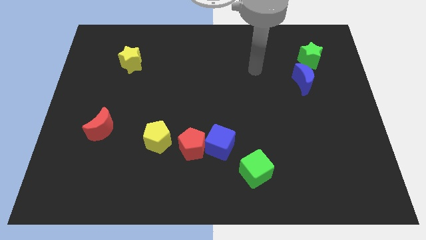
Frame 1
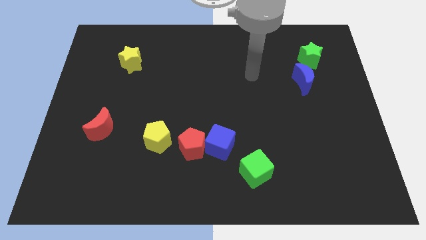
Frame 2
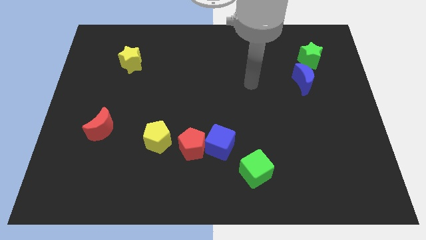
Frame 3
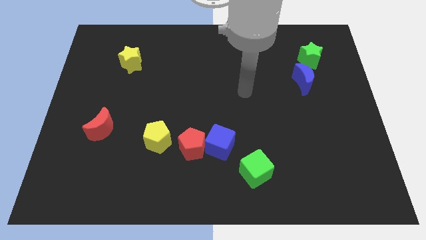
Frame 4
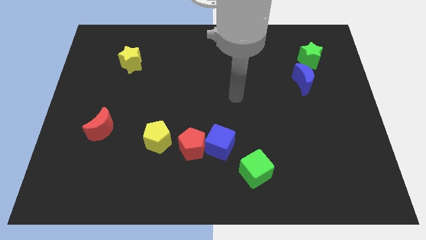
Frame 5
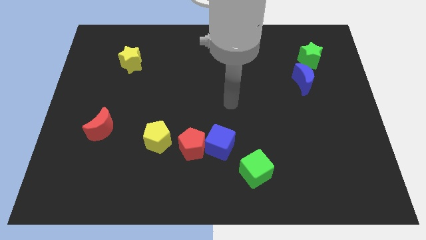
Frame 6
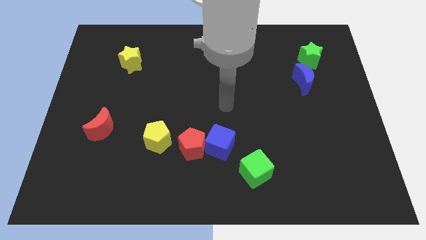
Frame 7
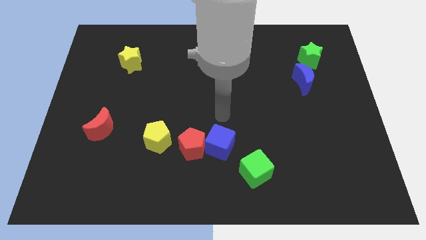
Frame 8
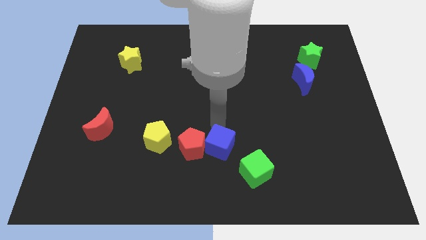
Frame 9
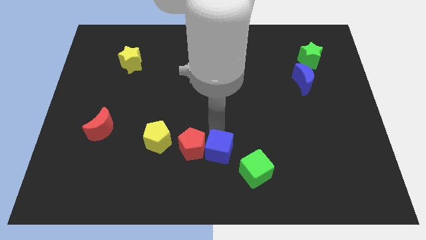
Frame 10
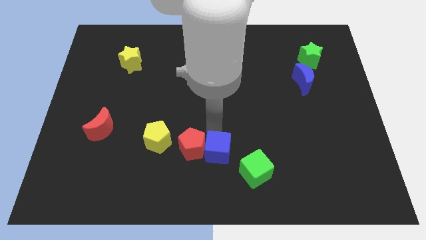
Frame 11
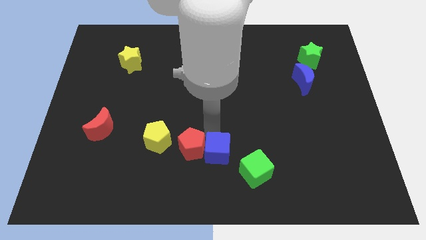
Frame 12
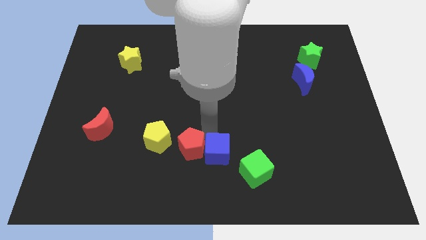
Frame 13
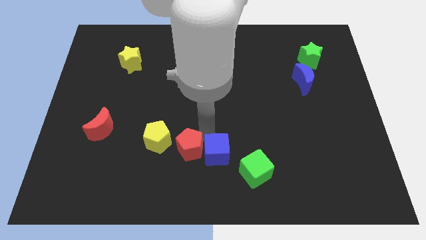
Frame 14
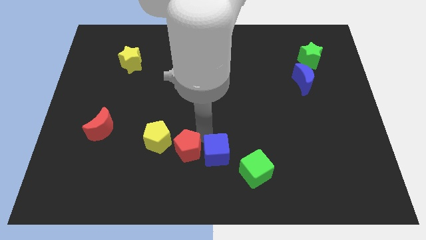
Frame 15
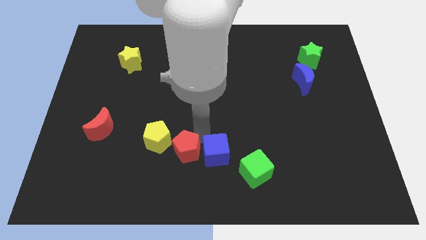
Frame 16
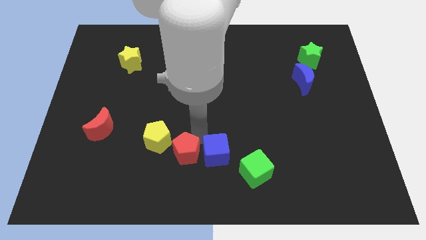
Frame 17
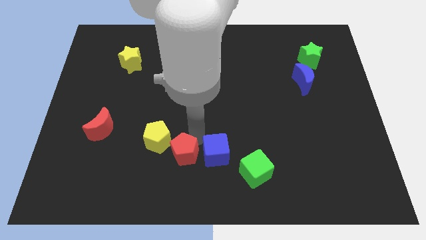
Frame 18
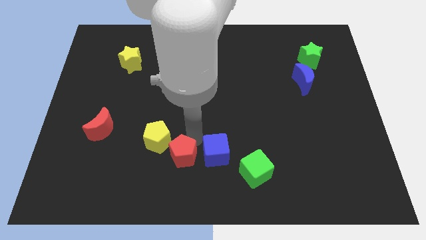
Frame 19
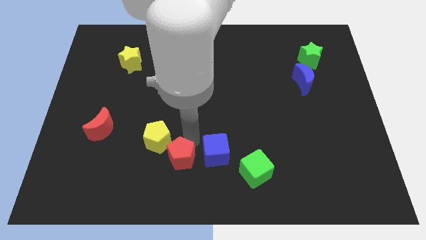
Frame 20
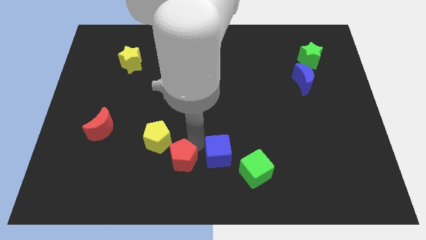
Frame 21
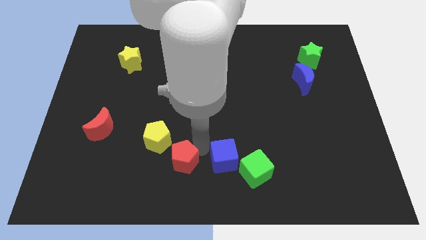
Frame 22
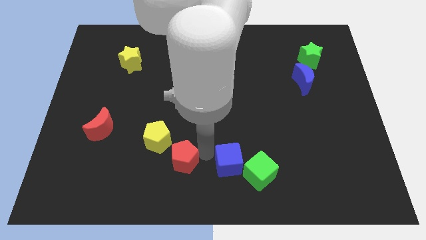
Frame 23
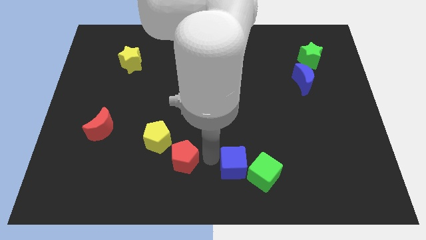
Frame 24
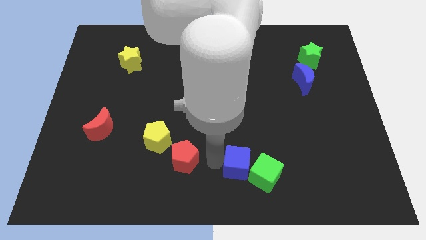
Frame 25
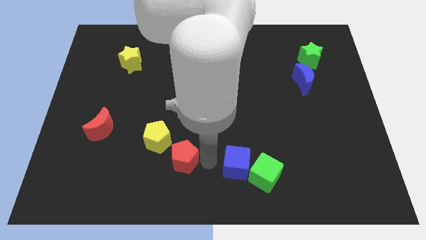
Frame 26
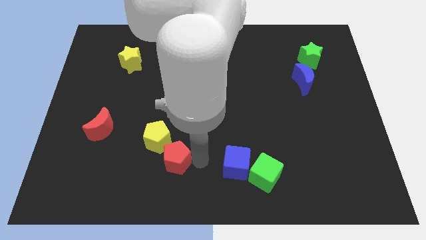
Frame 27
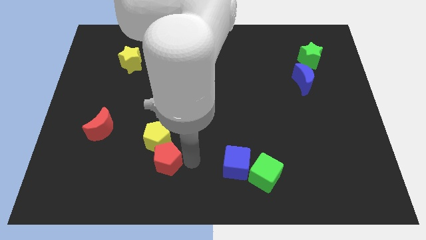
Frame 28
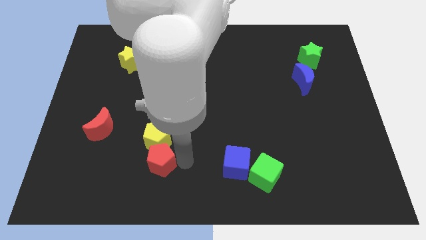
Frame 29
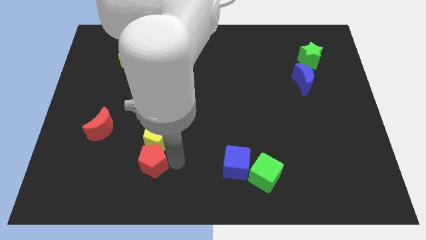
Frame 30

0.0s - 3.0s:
slide the red pentagon left a bit

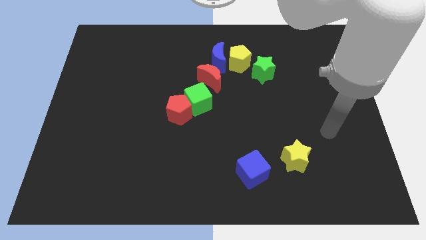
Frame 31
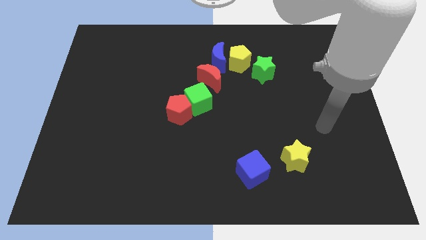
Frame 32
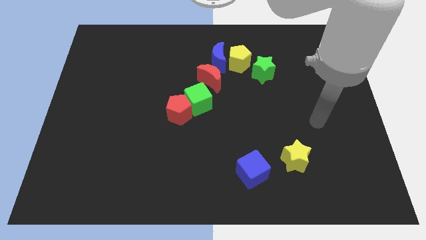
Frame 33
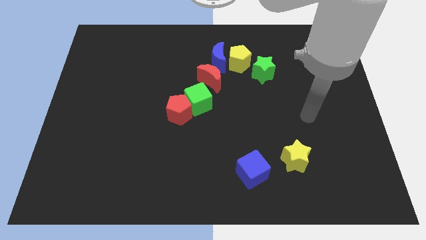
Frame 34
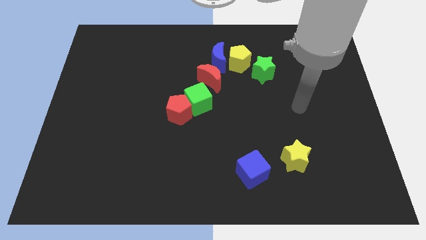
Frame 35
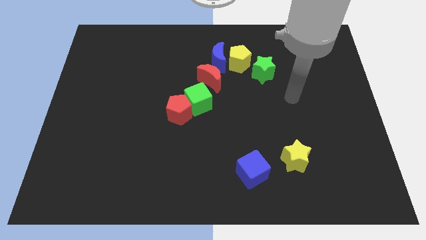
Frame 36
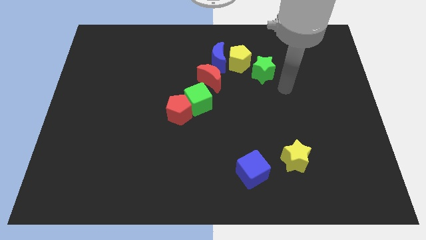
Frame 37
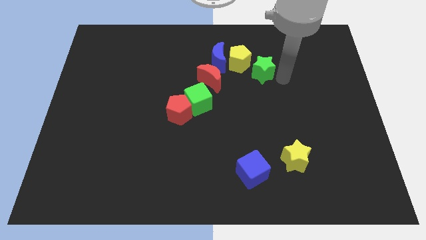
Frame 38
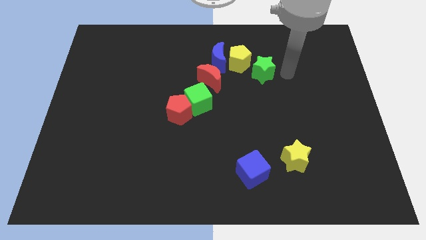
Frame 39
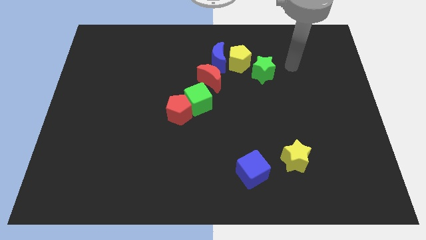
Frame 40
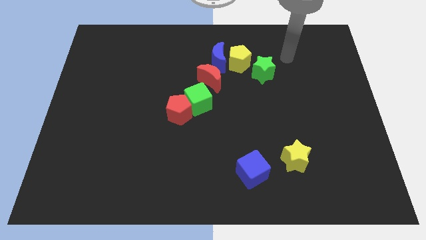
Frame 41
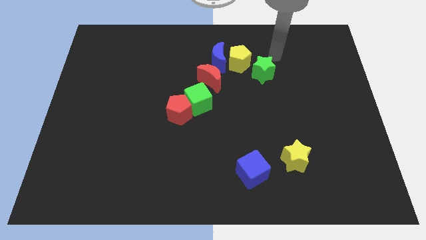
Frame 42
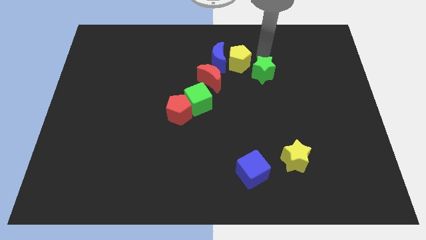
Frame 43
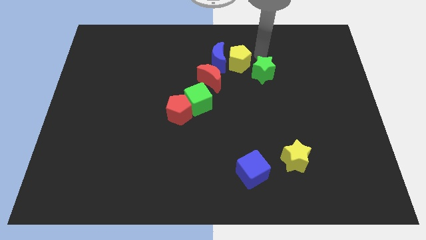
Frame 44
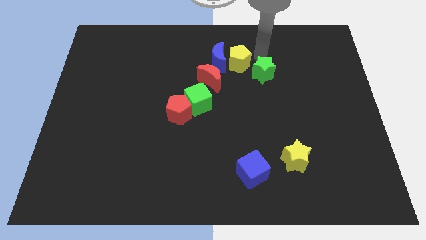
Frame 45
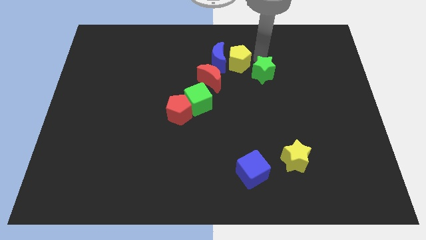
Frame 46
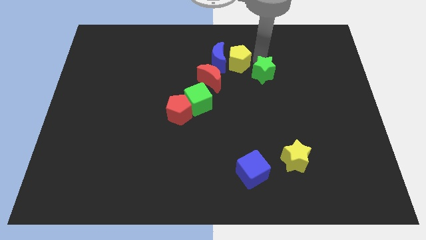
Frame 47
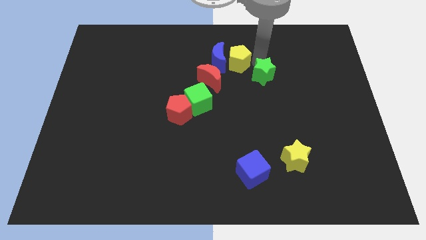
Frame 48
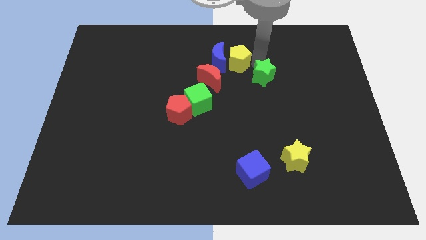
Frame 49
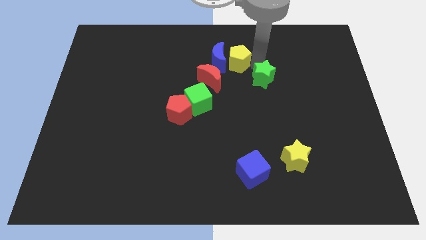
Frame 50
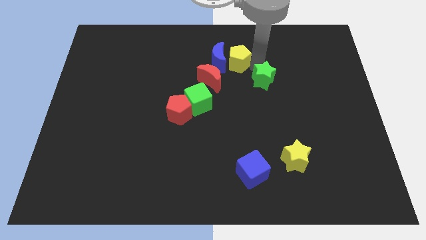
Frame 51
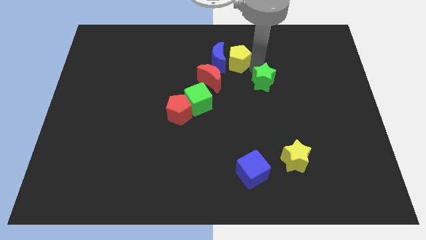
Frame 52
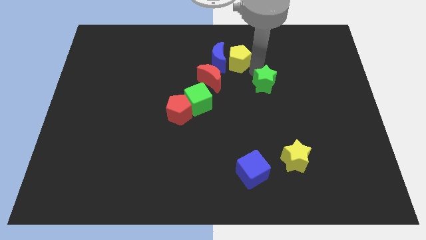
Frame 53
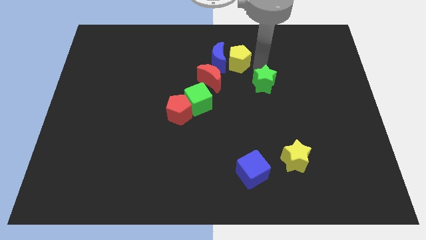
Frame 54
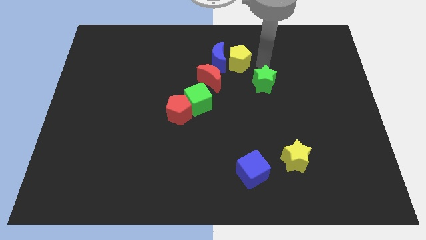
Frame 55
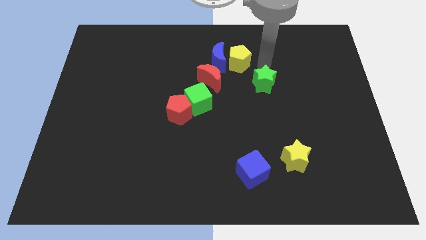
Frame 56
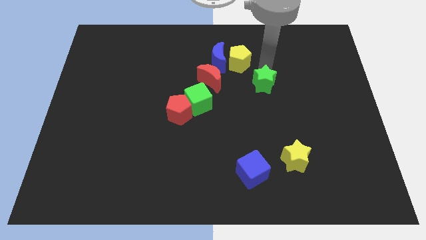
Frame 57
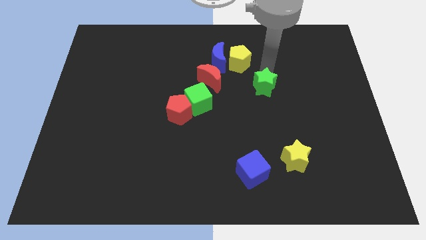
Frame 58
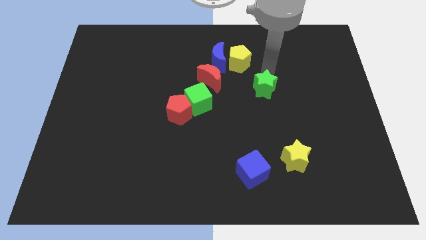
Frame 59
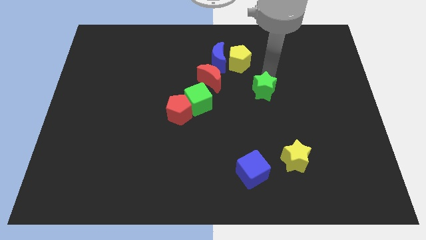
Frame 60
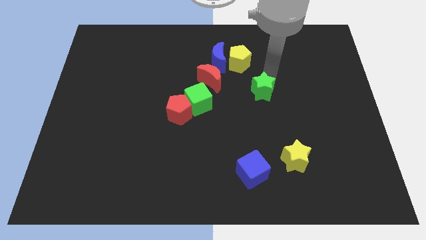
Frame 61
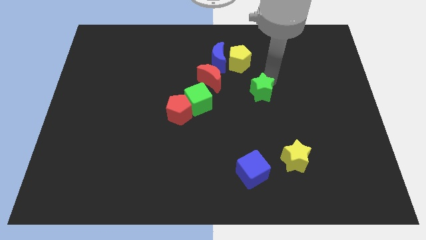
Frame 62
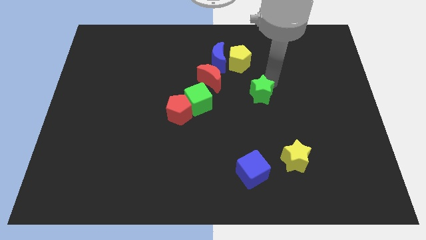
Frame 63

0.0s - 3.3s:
move the green star down somewhat

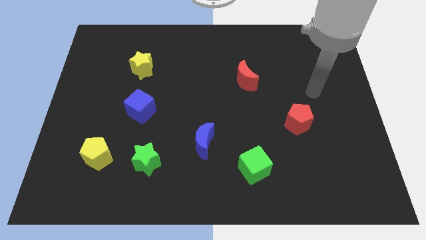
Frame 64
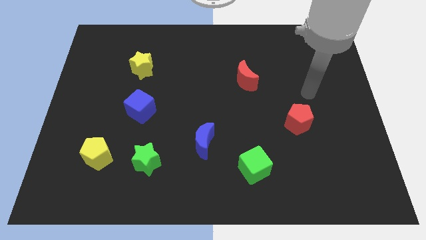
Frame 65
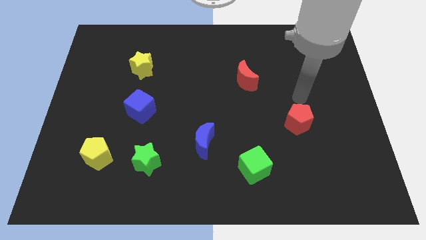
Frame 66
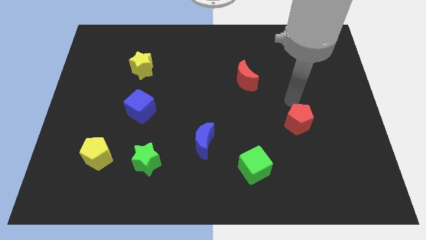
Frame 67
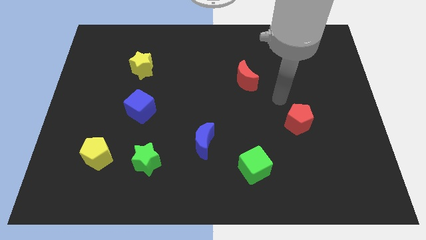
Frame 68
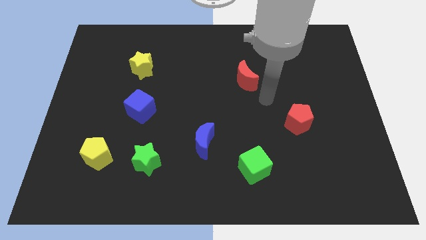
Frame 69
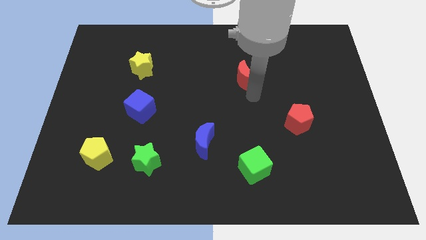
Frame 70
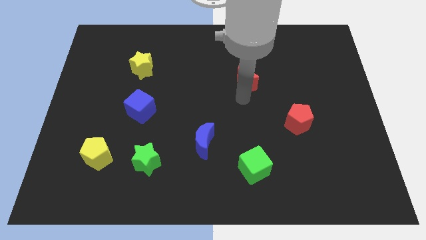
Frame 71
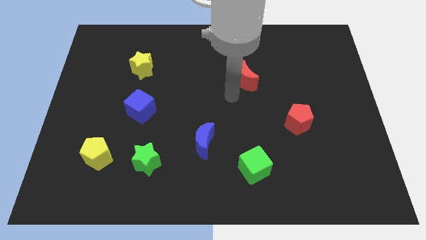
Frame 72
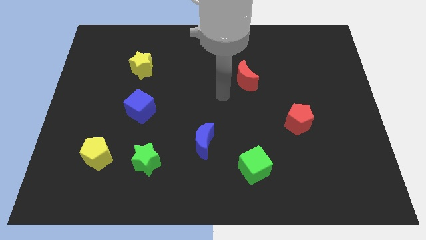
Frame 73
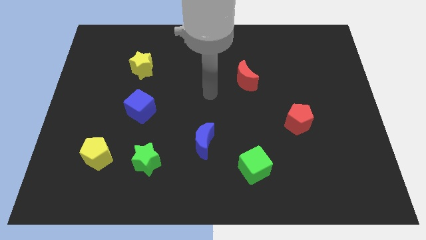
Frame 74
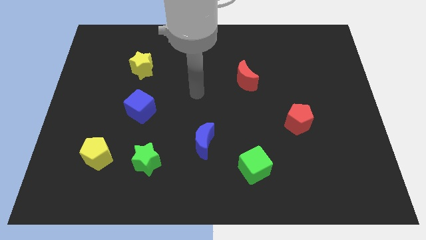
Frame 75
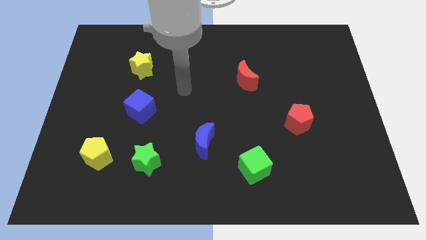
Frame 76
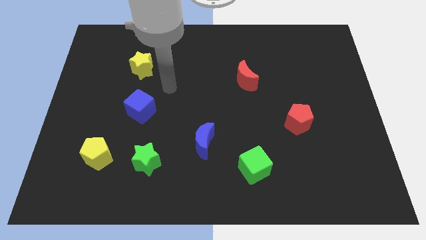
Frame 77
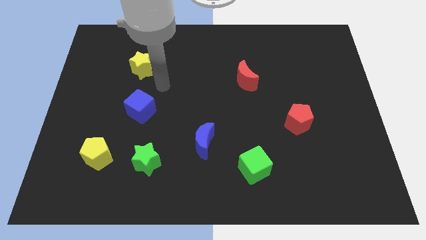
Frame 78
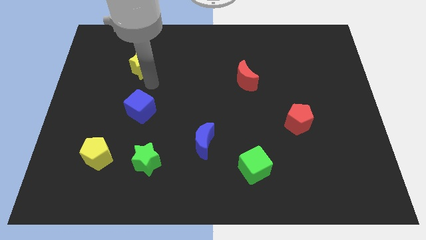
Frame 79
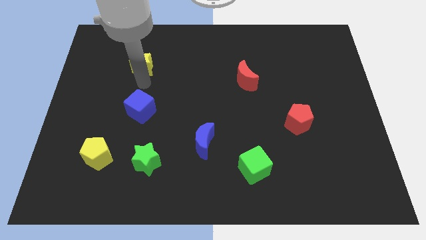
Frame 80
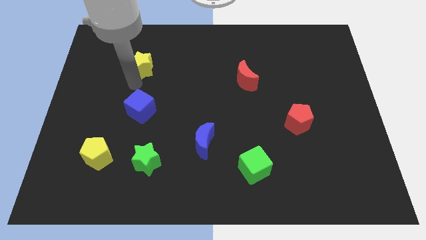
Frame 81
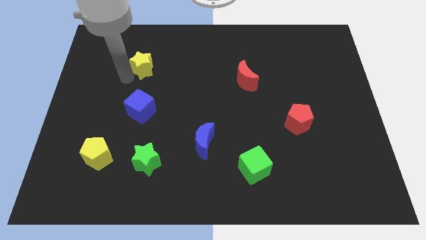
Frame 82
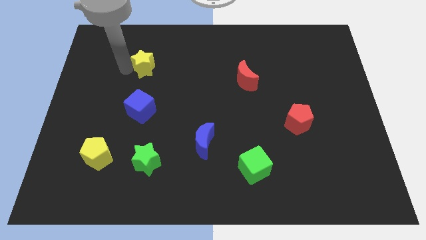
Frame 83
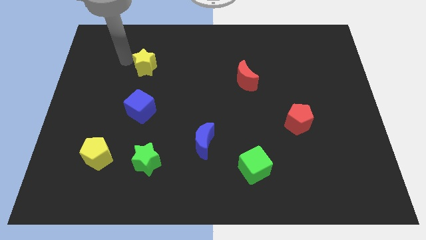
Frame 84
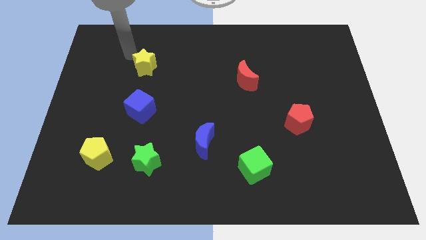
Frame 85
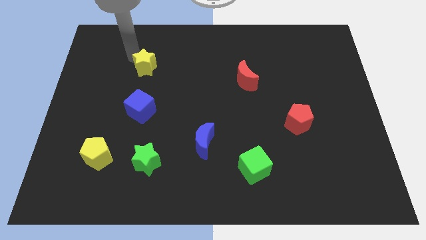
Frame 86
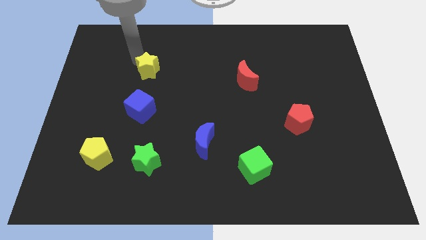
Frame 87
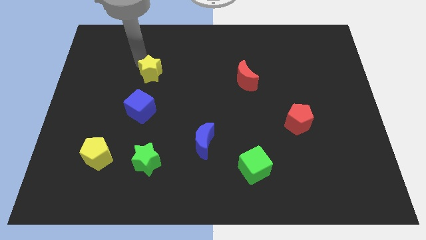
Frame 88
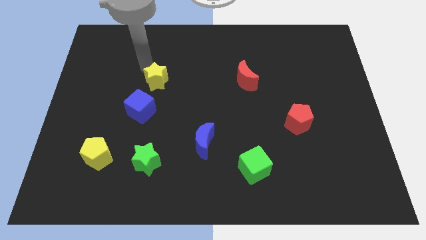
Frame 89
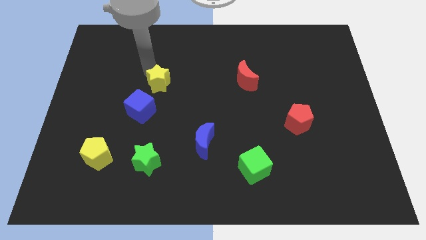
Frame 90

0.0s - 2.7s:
move the yellow star somewhat down and then to the right
